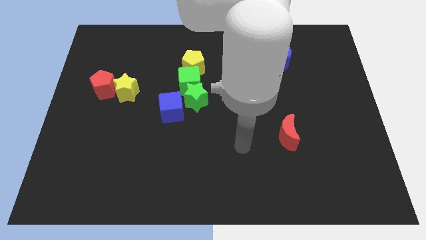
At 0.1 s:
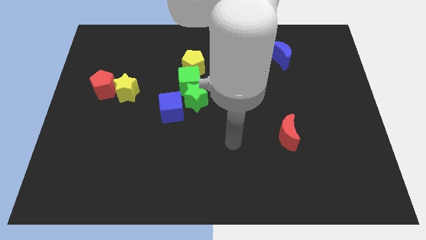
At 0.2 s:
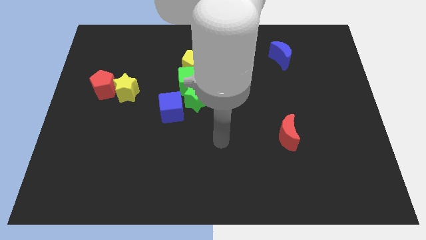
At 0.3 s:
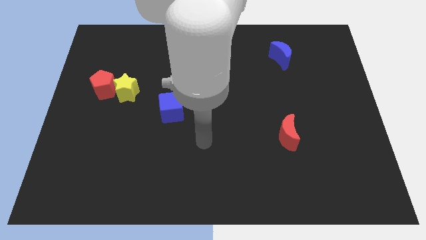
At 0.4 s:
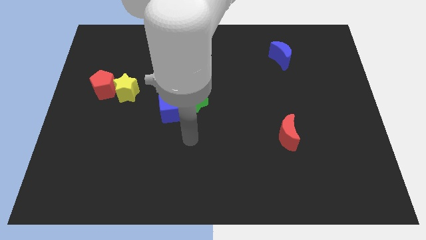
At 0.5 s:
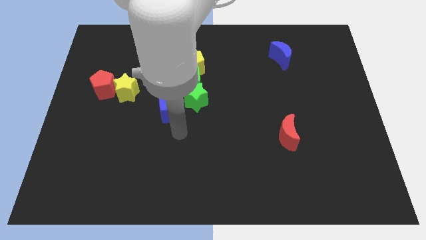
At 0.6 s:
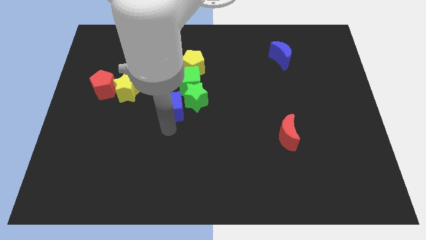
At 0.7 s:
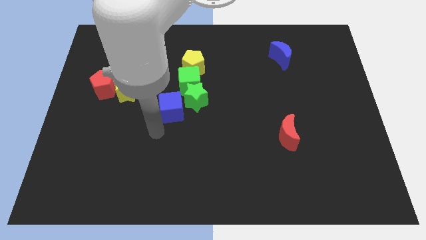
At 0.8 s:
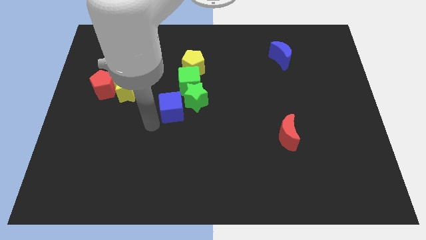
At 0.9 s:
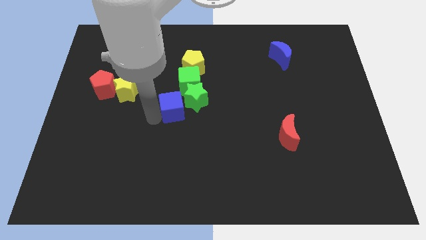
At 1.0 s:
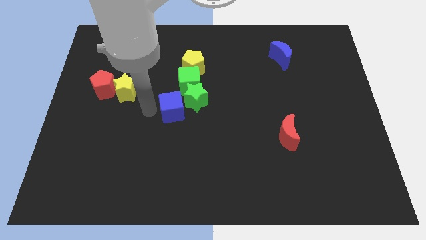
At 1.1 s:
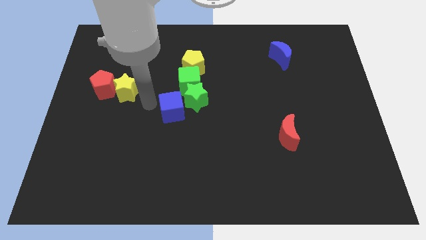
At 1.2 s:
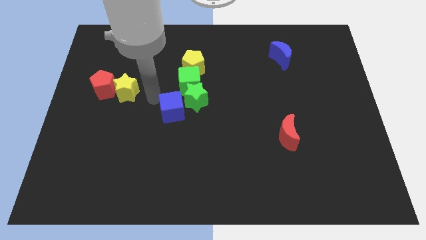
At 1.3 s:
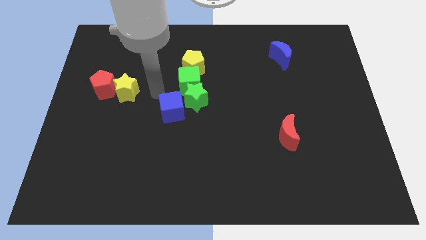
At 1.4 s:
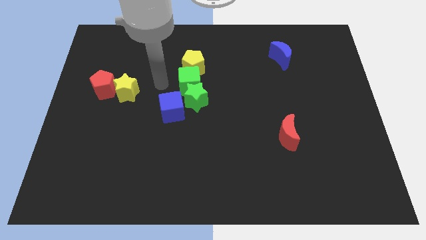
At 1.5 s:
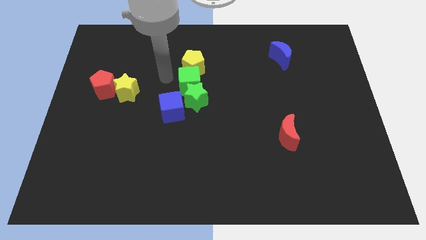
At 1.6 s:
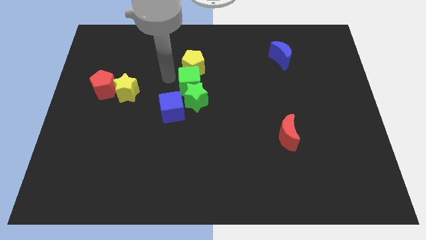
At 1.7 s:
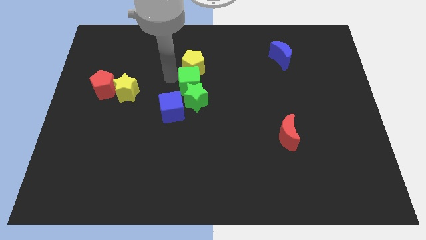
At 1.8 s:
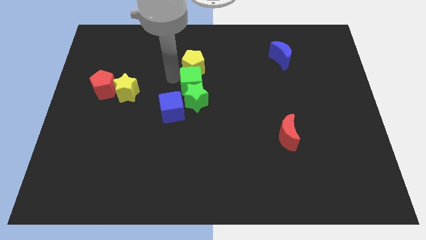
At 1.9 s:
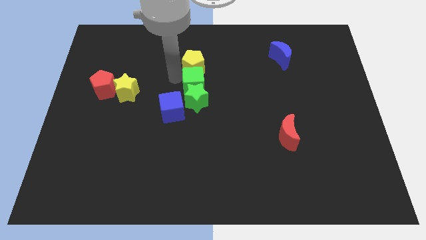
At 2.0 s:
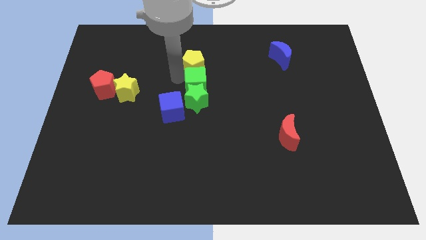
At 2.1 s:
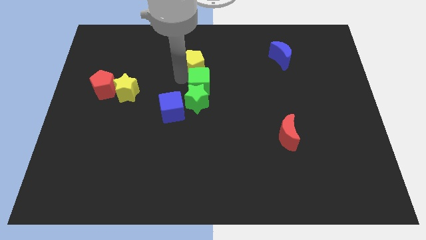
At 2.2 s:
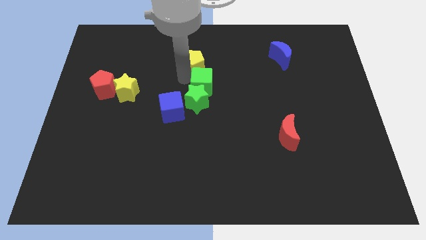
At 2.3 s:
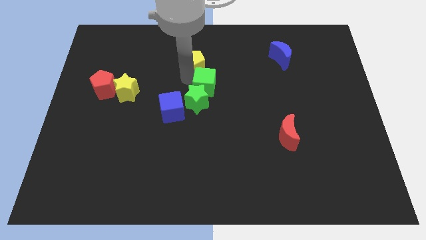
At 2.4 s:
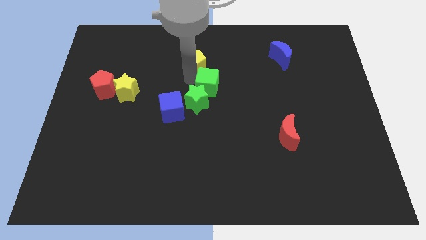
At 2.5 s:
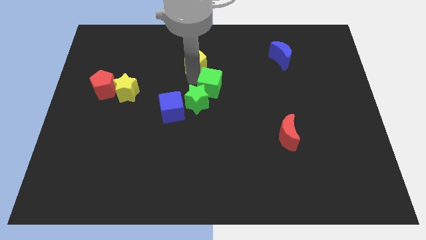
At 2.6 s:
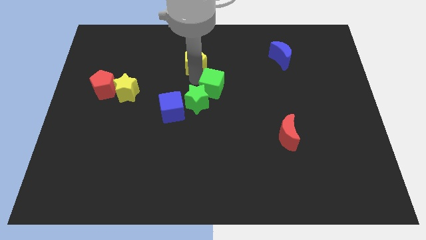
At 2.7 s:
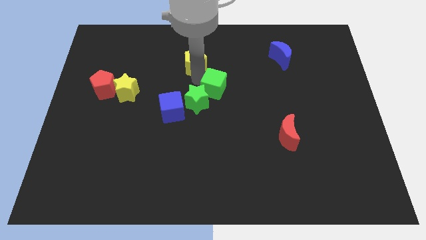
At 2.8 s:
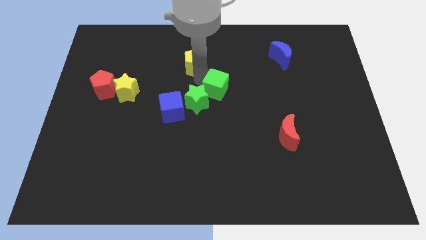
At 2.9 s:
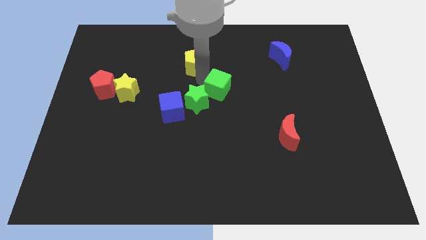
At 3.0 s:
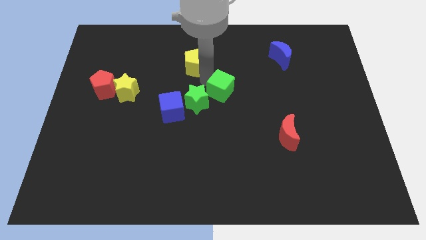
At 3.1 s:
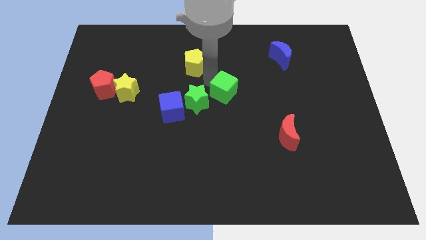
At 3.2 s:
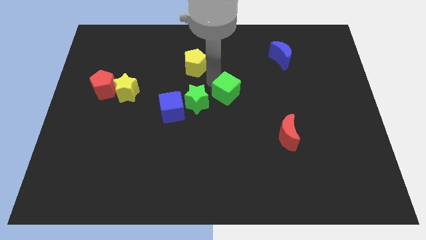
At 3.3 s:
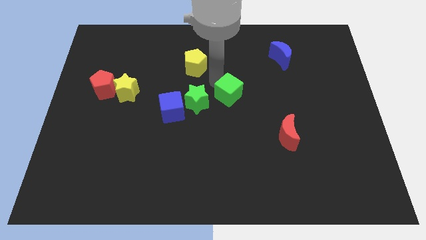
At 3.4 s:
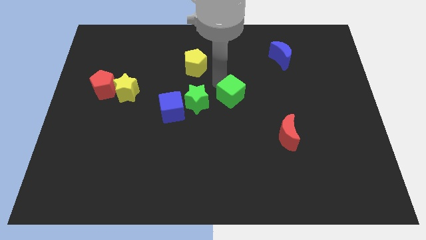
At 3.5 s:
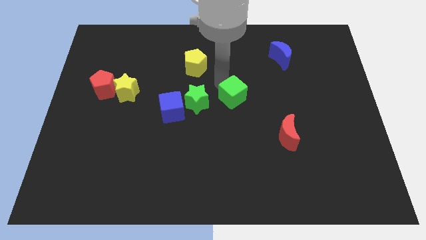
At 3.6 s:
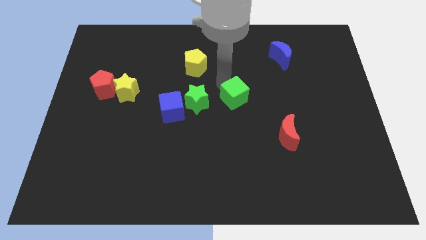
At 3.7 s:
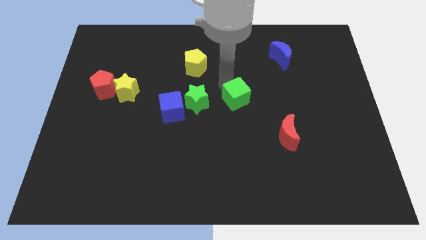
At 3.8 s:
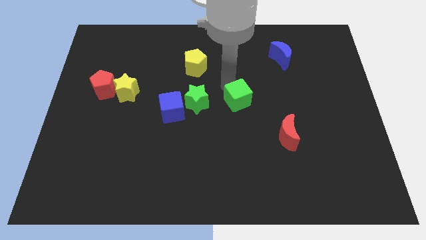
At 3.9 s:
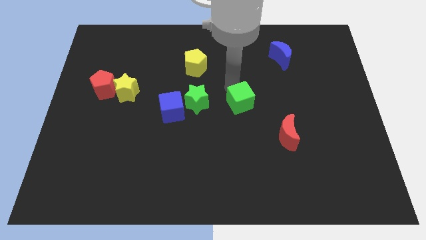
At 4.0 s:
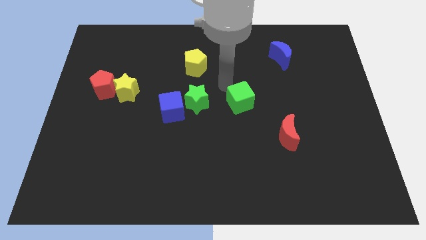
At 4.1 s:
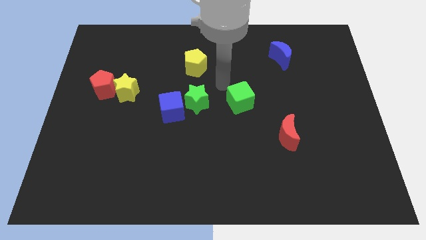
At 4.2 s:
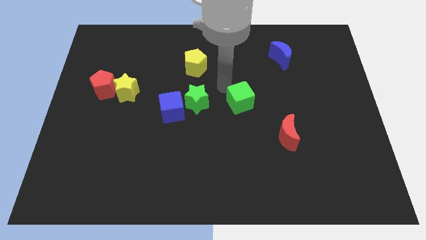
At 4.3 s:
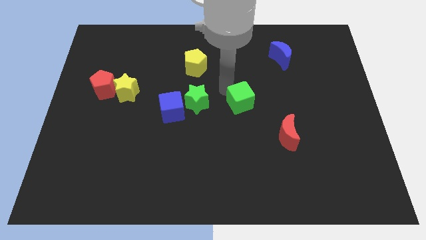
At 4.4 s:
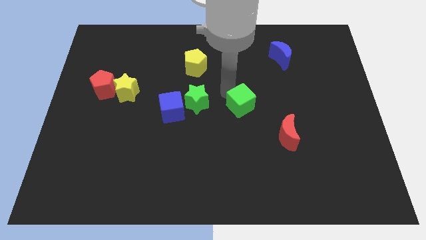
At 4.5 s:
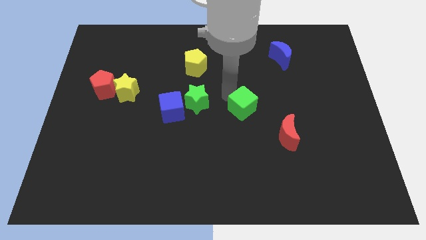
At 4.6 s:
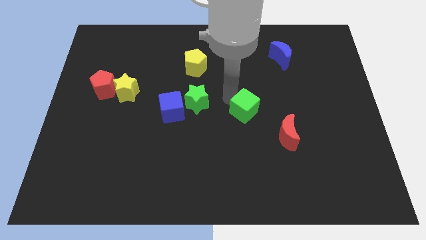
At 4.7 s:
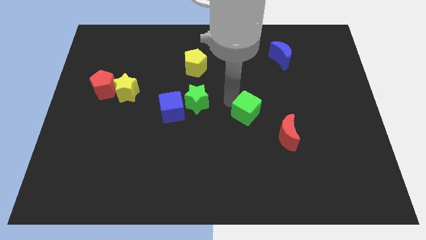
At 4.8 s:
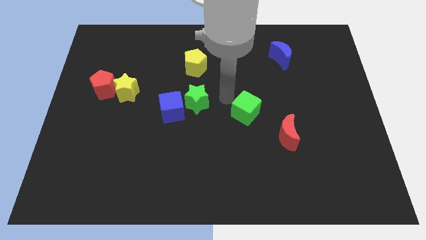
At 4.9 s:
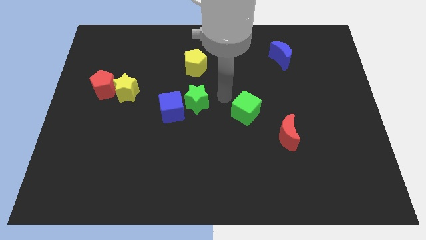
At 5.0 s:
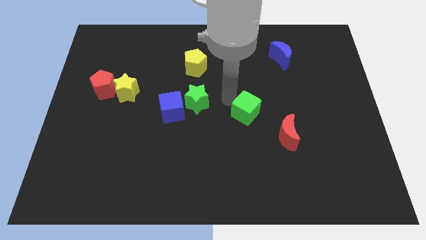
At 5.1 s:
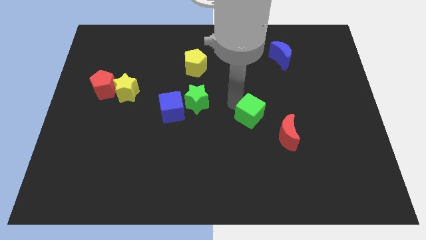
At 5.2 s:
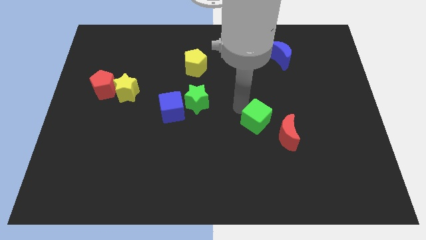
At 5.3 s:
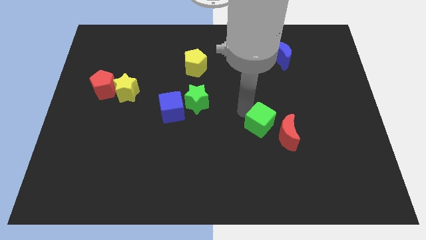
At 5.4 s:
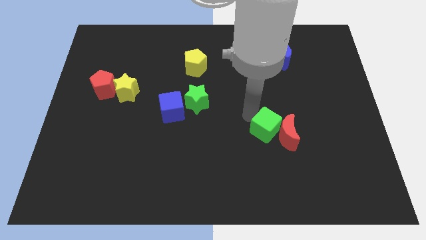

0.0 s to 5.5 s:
move the green cube to the red moon

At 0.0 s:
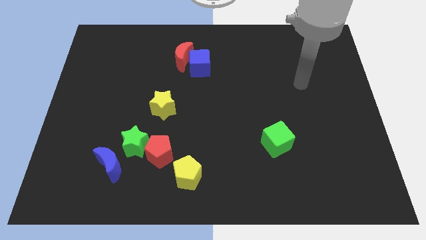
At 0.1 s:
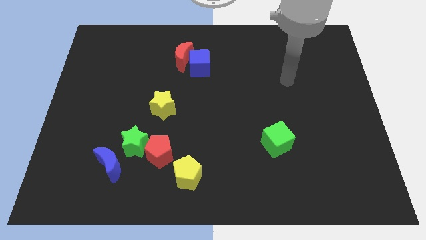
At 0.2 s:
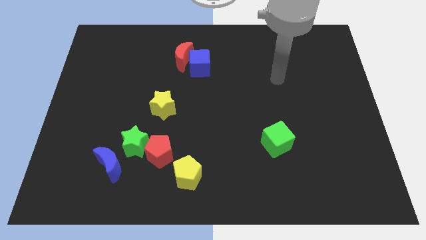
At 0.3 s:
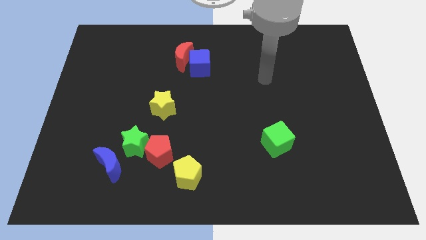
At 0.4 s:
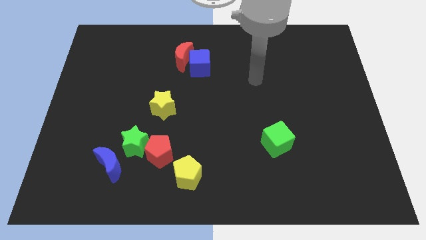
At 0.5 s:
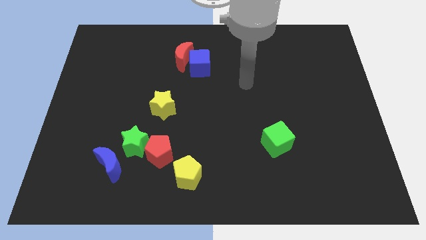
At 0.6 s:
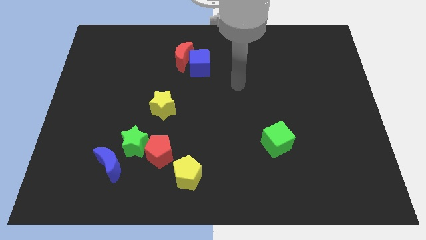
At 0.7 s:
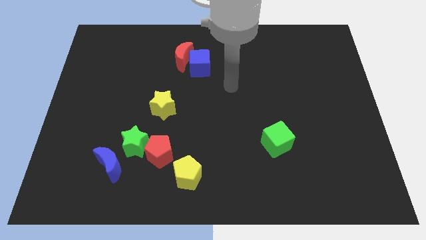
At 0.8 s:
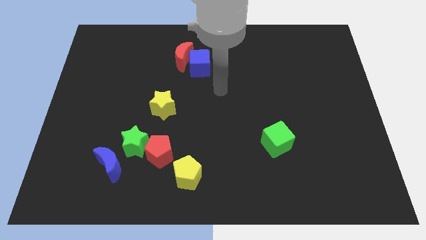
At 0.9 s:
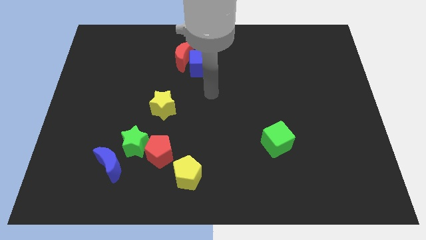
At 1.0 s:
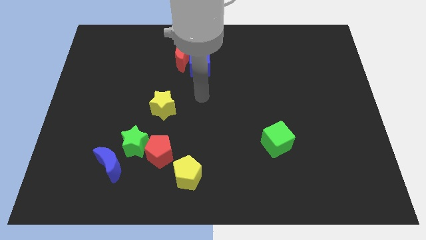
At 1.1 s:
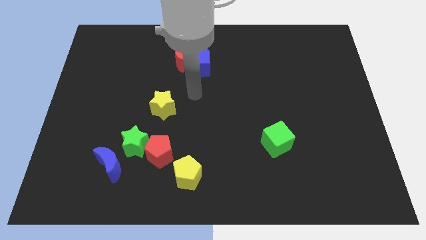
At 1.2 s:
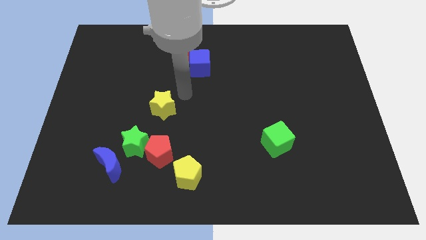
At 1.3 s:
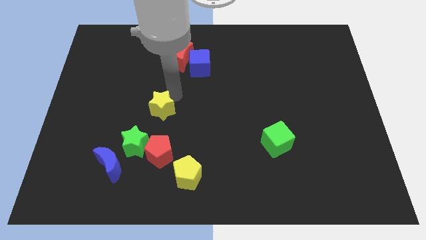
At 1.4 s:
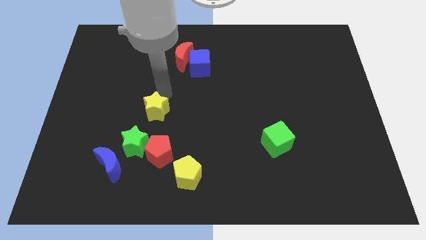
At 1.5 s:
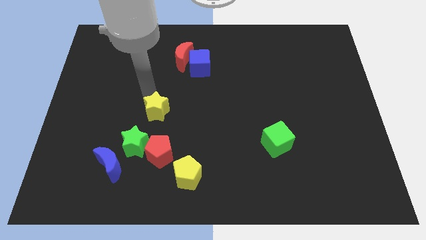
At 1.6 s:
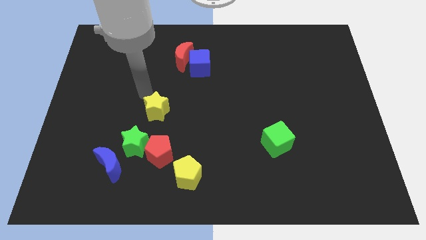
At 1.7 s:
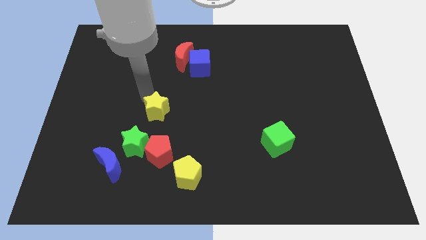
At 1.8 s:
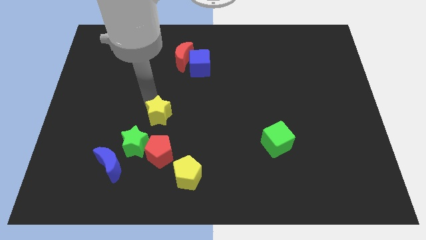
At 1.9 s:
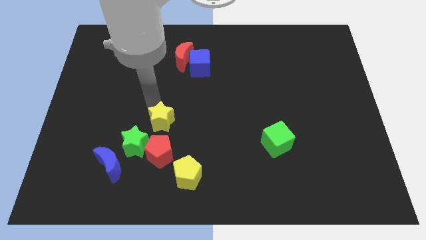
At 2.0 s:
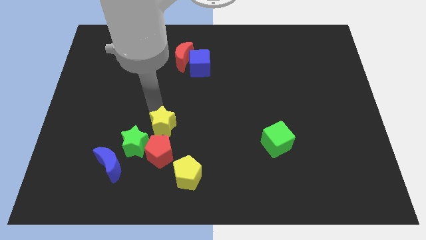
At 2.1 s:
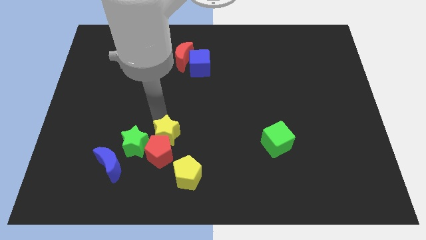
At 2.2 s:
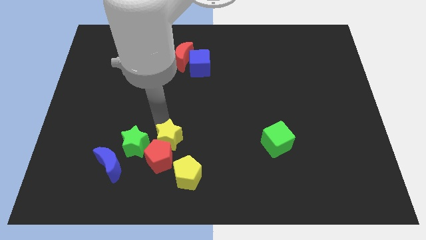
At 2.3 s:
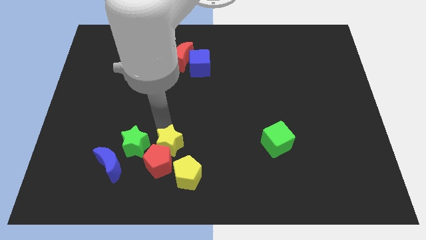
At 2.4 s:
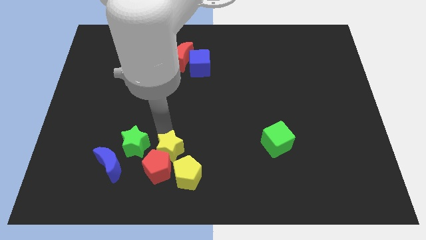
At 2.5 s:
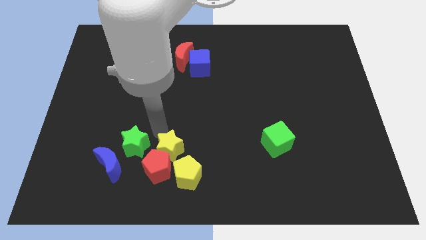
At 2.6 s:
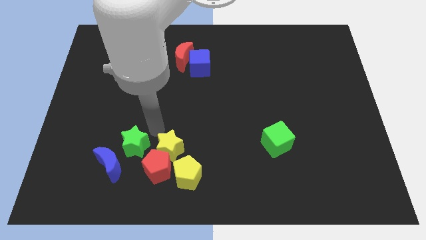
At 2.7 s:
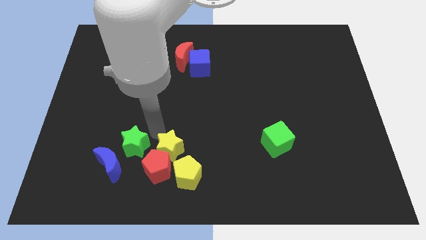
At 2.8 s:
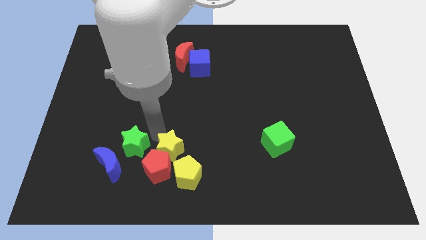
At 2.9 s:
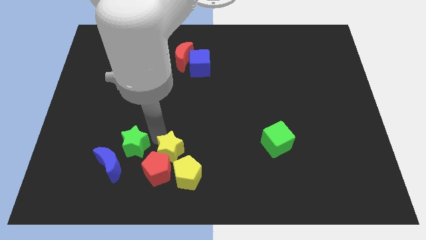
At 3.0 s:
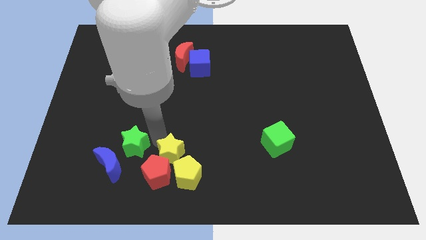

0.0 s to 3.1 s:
put the yellow star to the yellow pentagon
